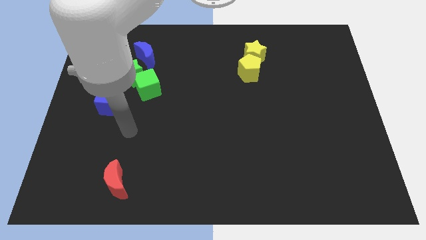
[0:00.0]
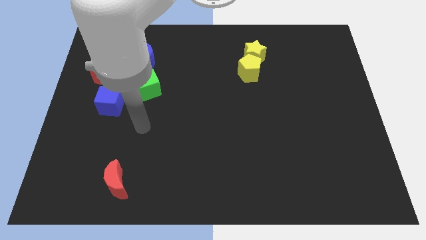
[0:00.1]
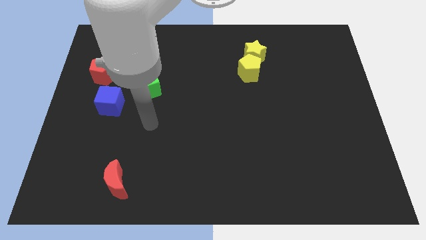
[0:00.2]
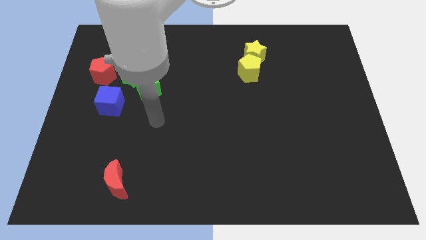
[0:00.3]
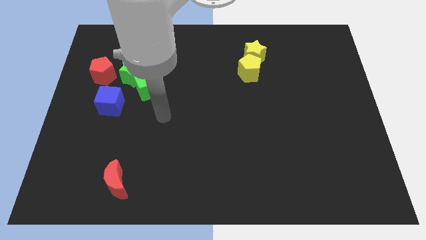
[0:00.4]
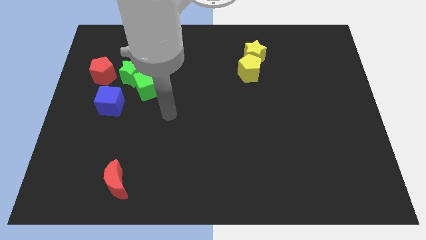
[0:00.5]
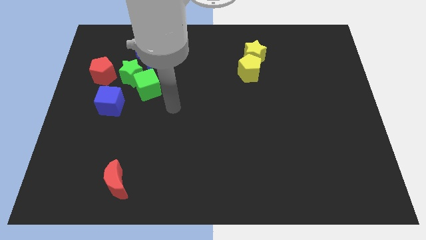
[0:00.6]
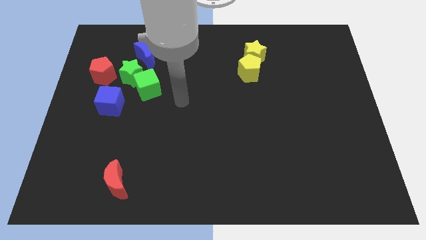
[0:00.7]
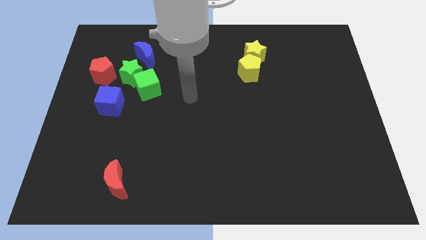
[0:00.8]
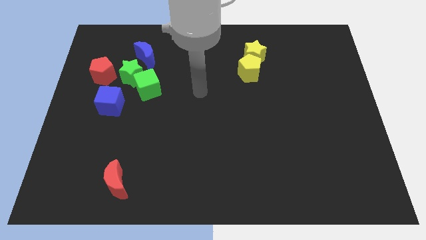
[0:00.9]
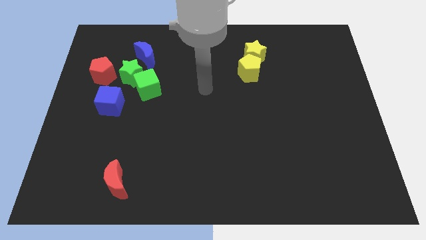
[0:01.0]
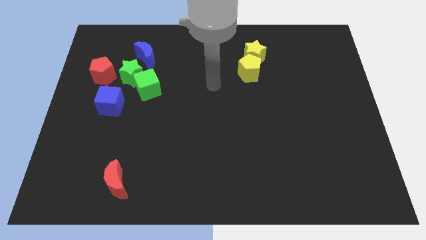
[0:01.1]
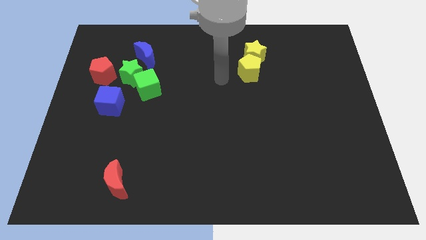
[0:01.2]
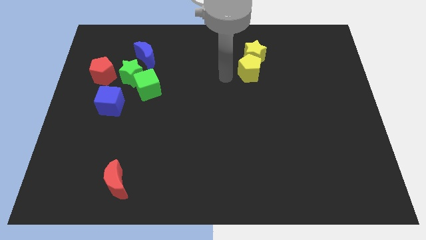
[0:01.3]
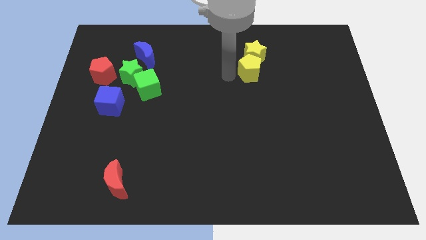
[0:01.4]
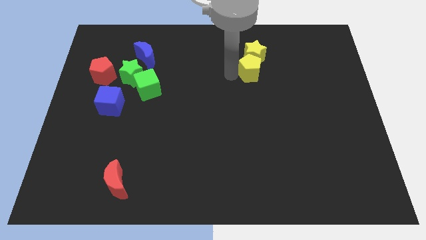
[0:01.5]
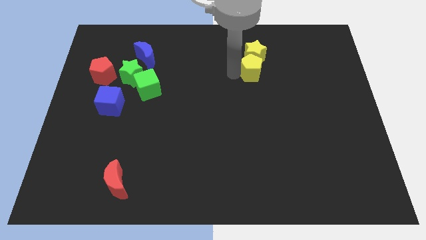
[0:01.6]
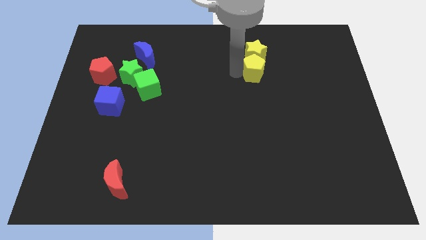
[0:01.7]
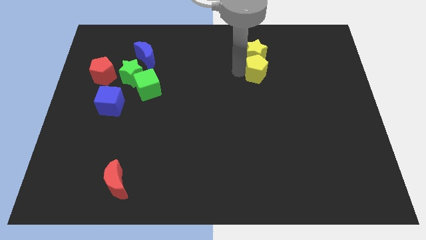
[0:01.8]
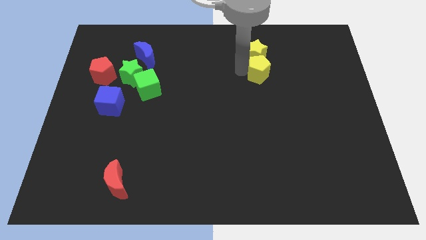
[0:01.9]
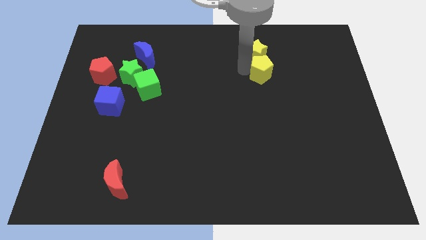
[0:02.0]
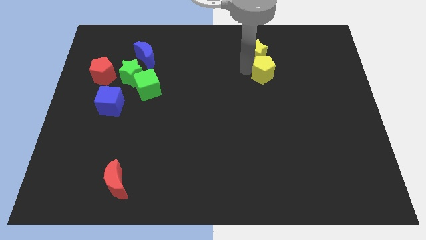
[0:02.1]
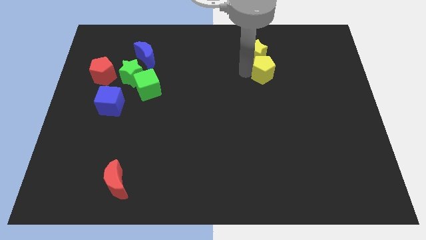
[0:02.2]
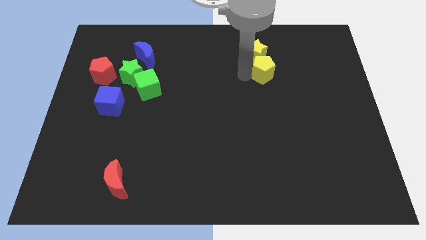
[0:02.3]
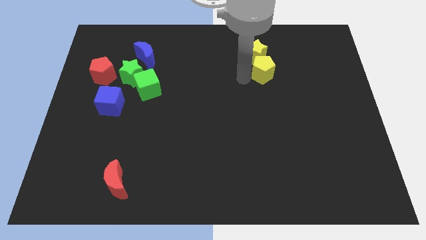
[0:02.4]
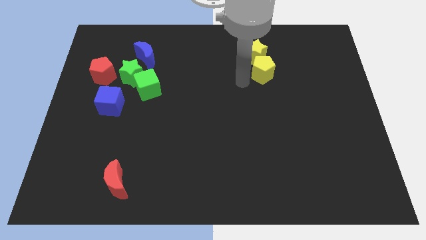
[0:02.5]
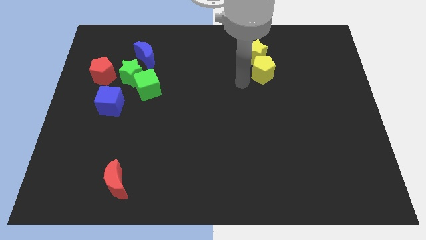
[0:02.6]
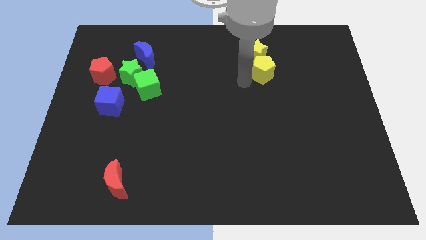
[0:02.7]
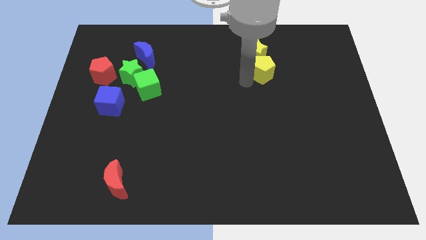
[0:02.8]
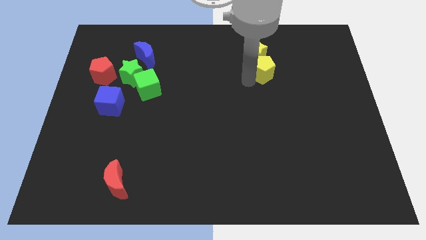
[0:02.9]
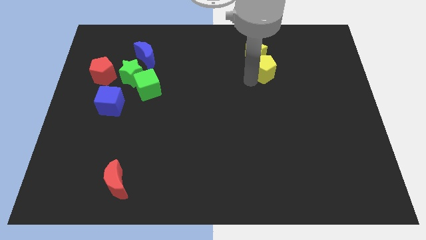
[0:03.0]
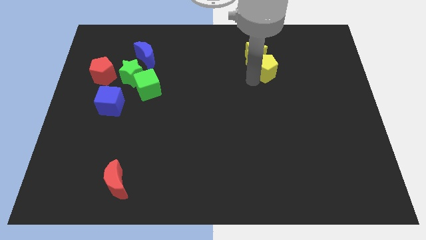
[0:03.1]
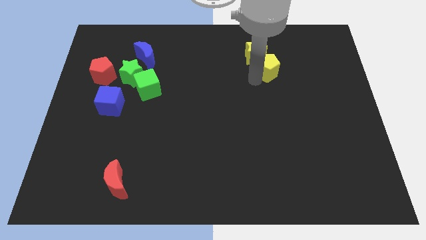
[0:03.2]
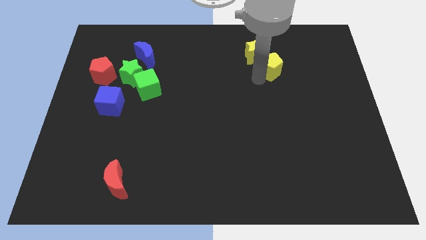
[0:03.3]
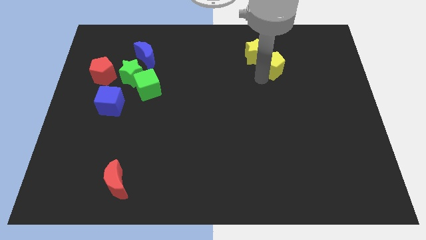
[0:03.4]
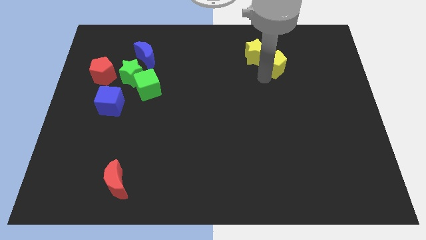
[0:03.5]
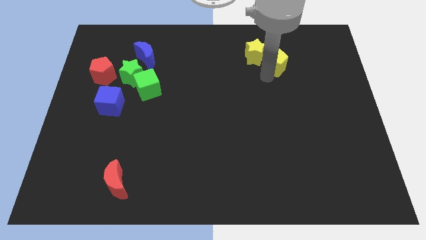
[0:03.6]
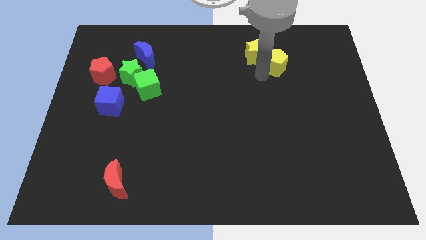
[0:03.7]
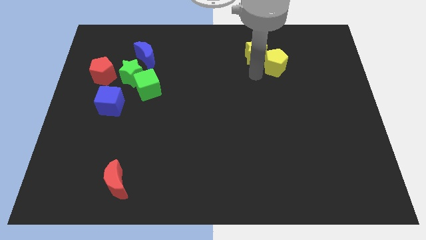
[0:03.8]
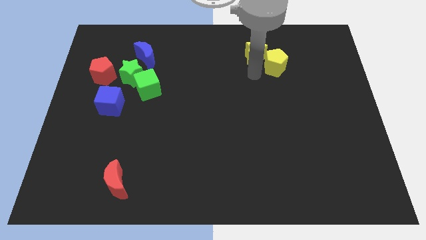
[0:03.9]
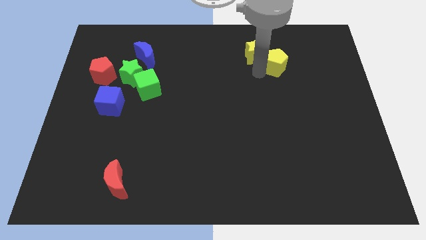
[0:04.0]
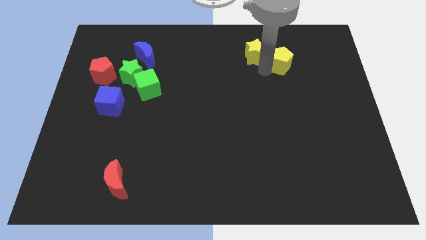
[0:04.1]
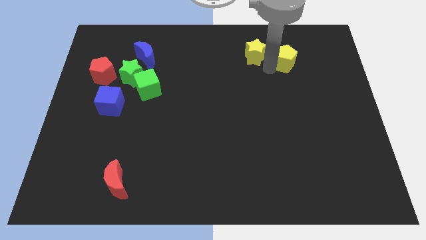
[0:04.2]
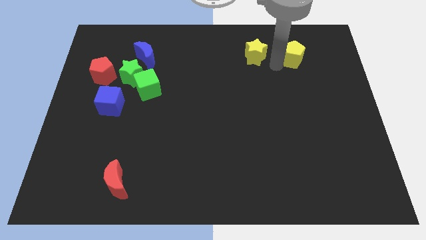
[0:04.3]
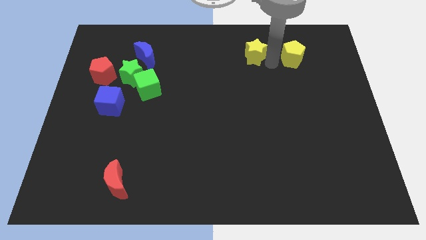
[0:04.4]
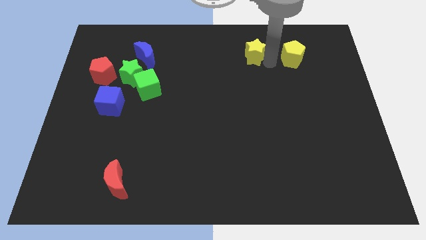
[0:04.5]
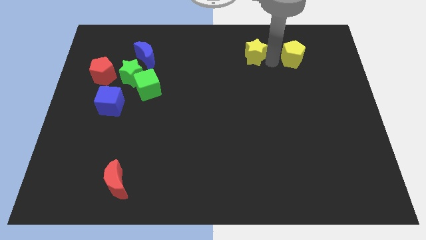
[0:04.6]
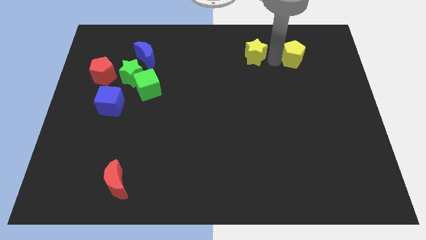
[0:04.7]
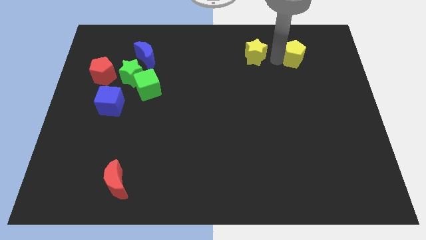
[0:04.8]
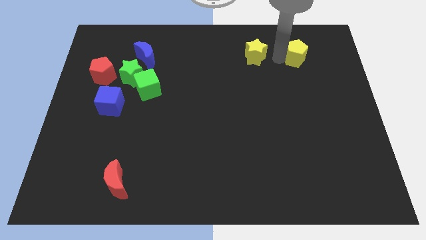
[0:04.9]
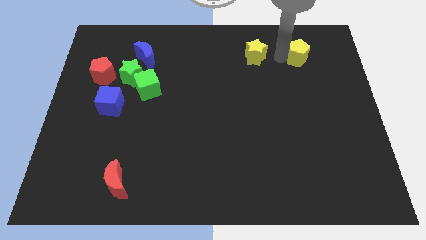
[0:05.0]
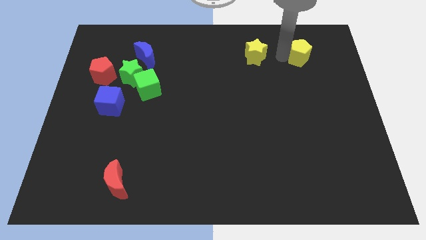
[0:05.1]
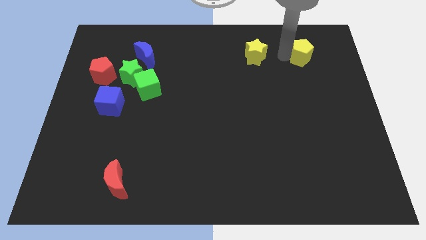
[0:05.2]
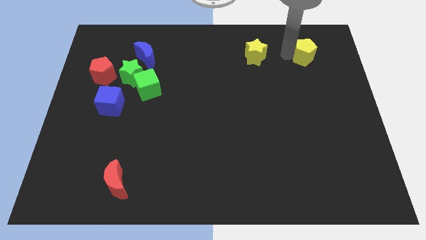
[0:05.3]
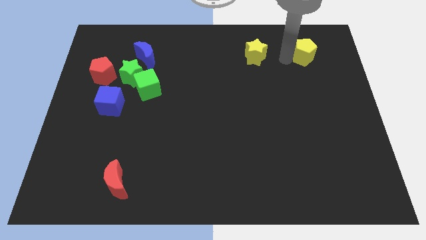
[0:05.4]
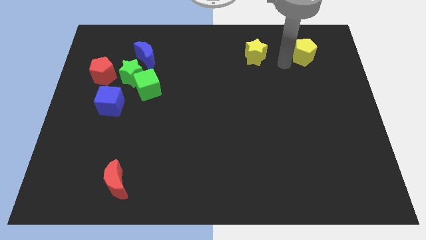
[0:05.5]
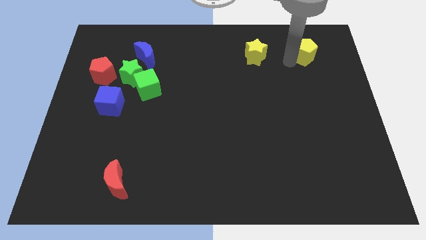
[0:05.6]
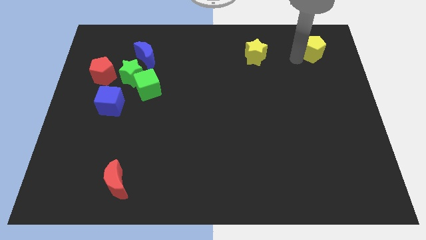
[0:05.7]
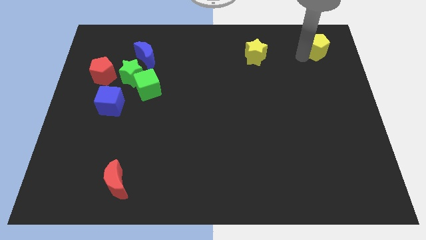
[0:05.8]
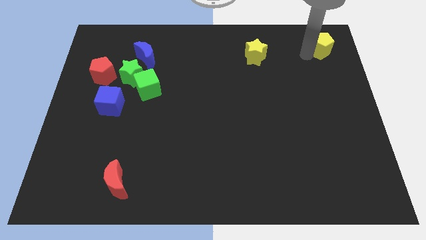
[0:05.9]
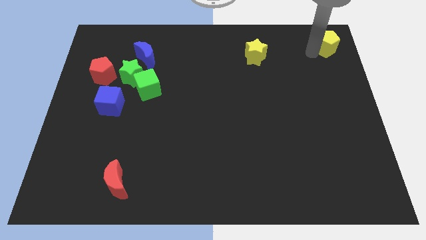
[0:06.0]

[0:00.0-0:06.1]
slide the yellow pentagon to the upper right corner
